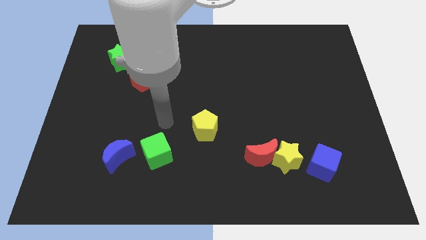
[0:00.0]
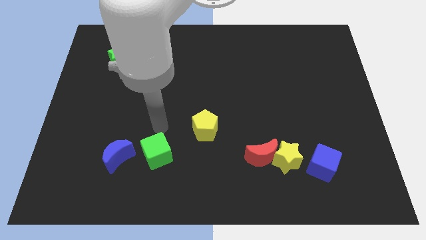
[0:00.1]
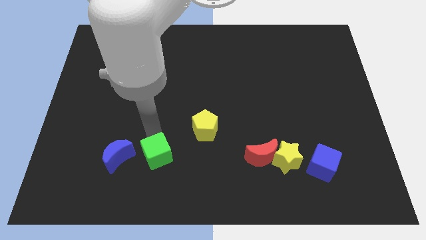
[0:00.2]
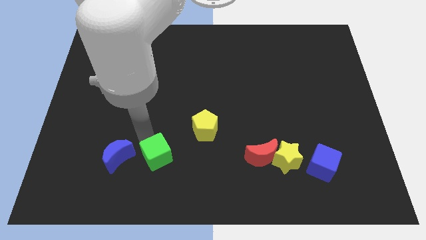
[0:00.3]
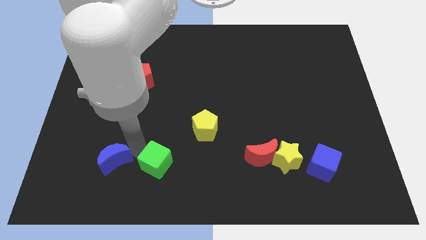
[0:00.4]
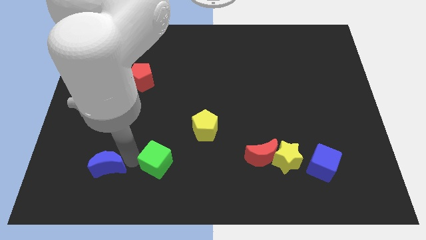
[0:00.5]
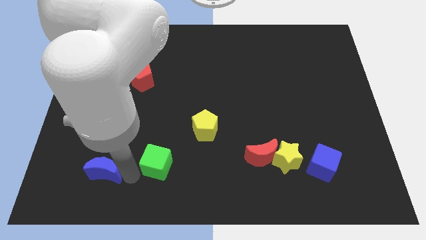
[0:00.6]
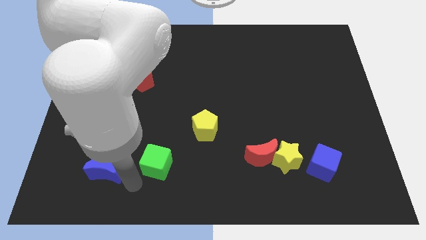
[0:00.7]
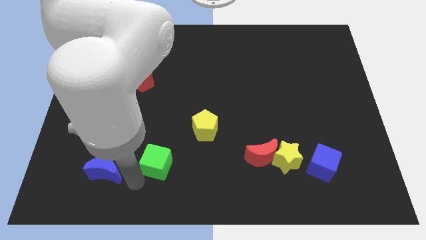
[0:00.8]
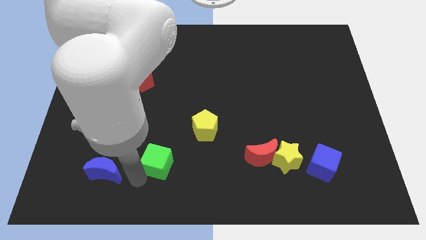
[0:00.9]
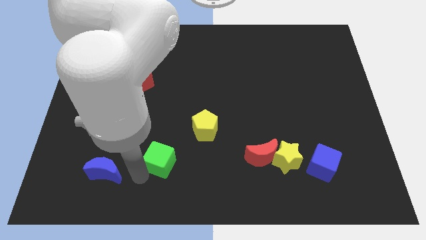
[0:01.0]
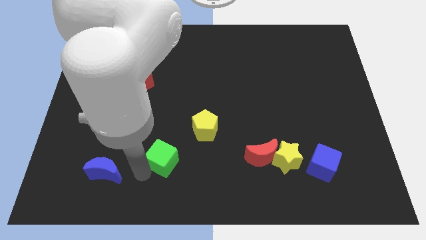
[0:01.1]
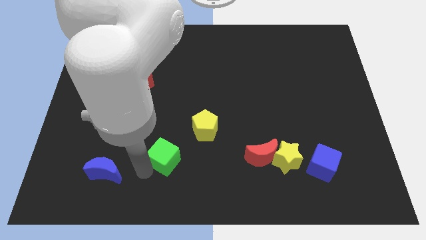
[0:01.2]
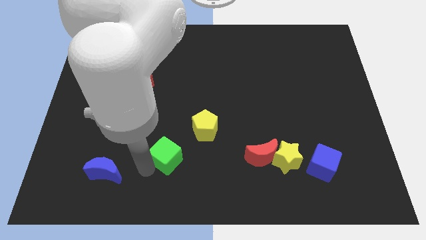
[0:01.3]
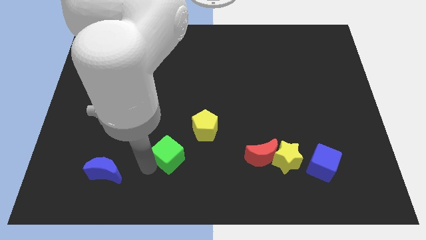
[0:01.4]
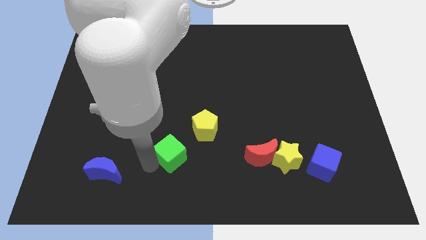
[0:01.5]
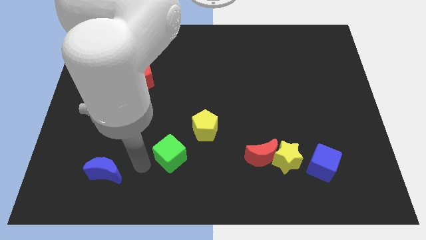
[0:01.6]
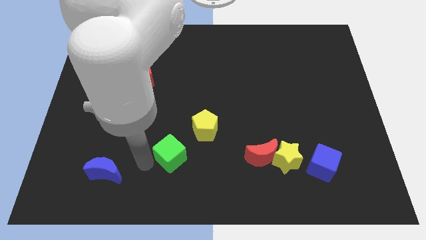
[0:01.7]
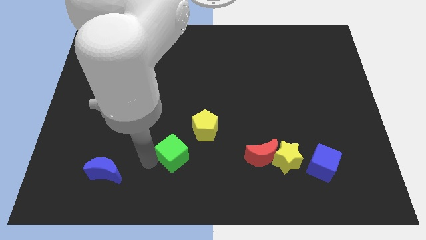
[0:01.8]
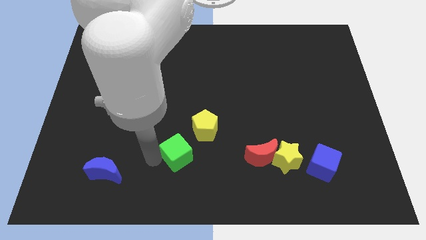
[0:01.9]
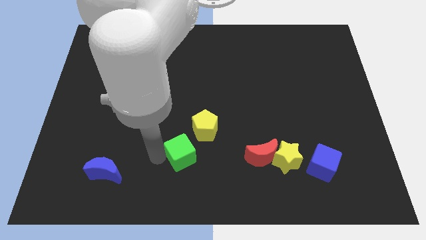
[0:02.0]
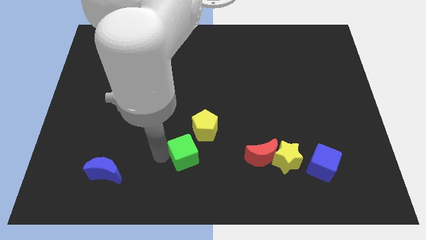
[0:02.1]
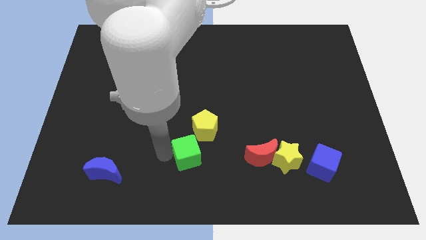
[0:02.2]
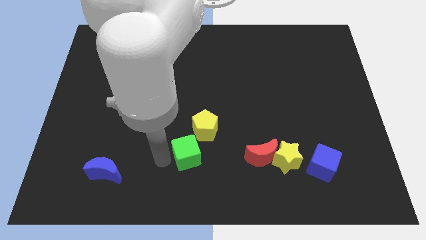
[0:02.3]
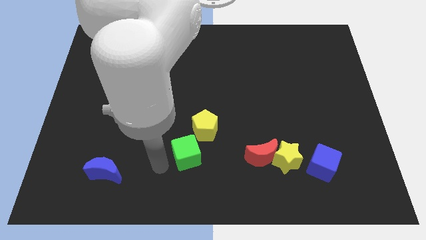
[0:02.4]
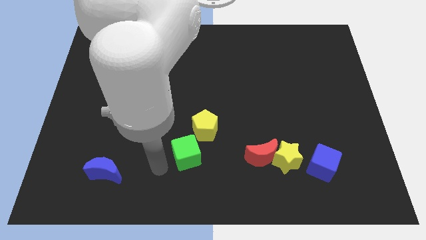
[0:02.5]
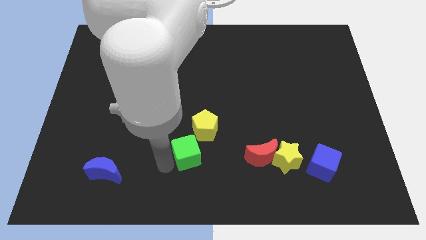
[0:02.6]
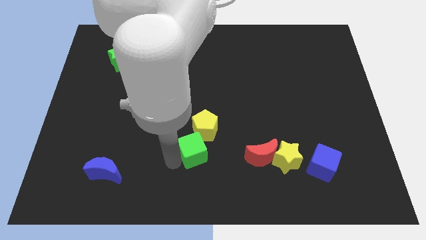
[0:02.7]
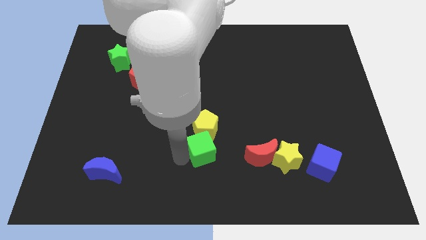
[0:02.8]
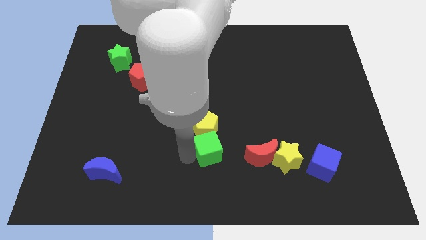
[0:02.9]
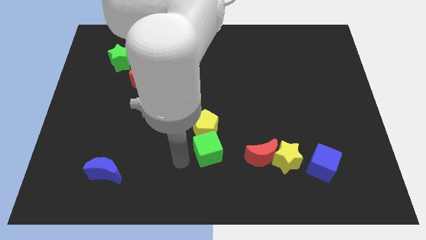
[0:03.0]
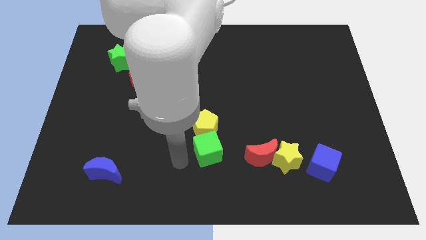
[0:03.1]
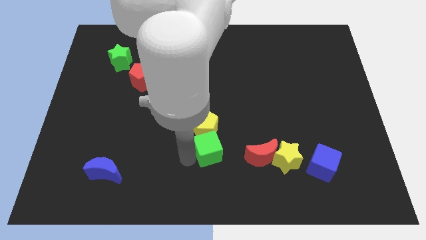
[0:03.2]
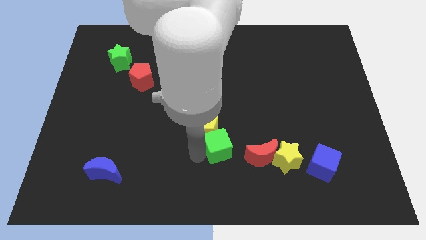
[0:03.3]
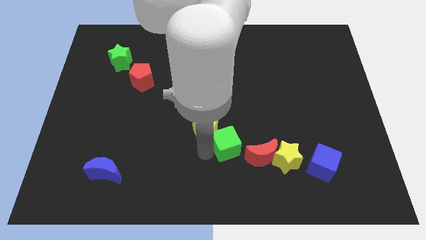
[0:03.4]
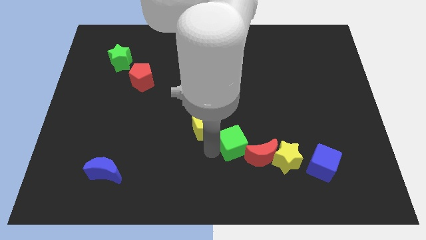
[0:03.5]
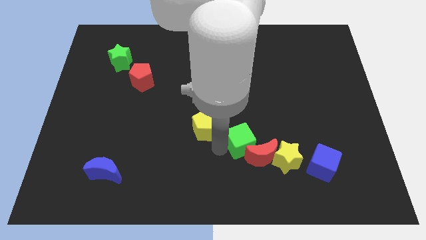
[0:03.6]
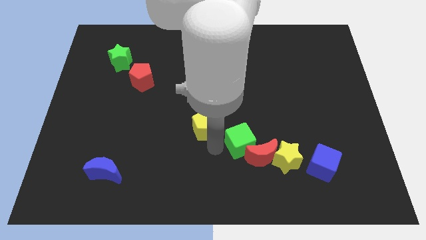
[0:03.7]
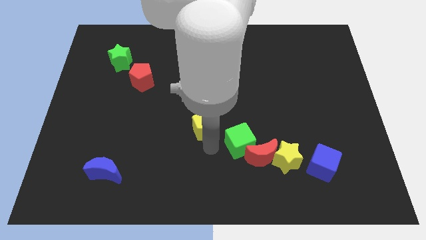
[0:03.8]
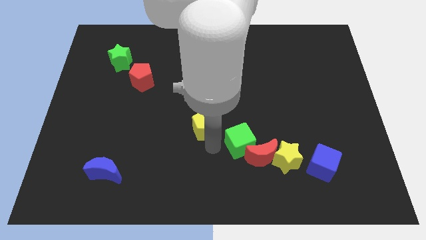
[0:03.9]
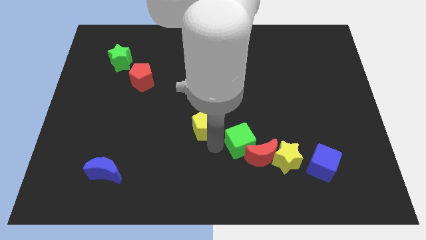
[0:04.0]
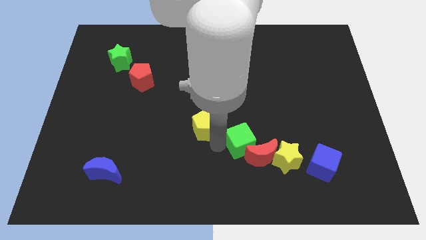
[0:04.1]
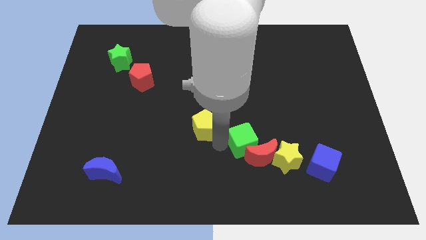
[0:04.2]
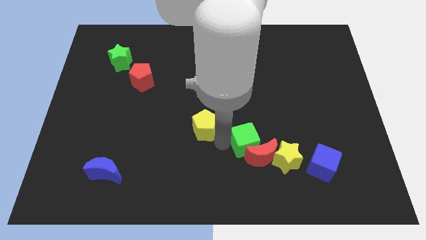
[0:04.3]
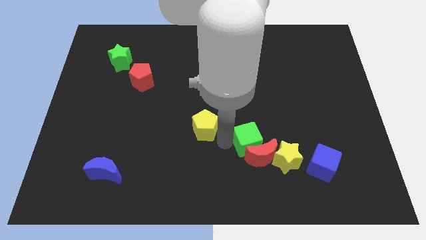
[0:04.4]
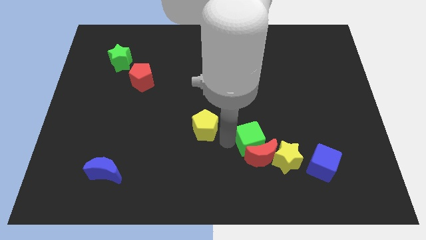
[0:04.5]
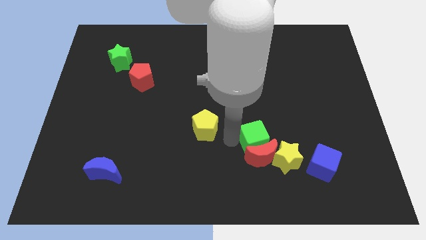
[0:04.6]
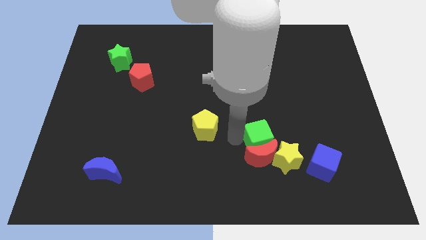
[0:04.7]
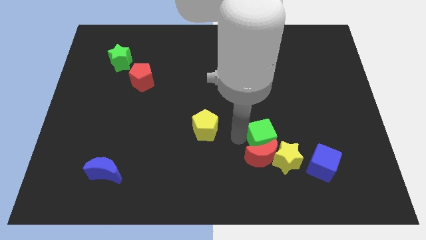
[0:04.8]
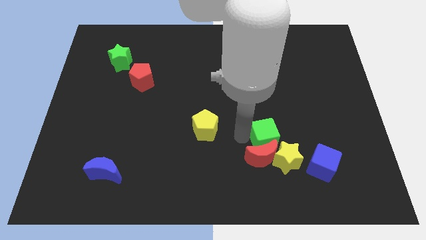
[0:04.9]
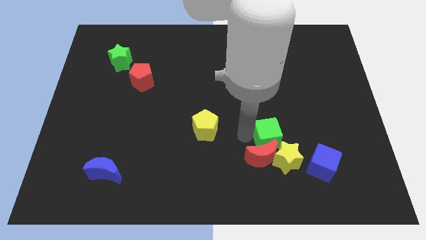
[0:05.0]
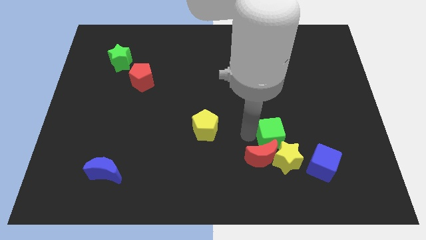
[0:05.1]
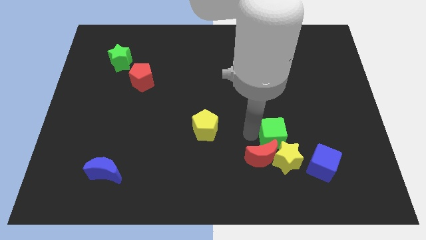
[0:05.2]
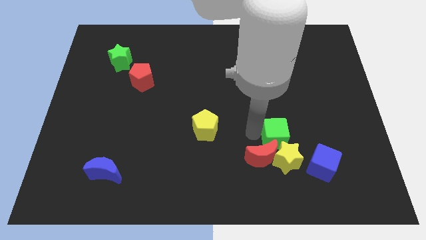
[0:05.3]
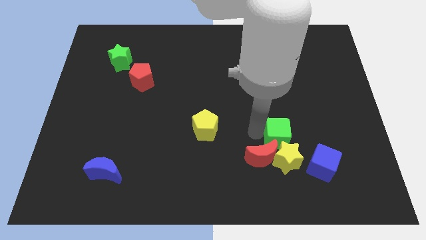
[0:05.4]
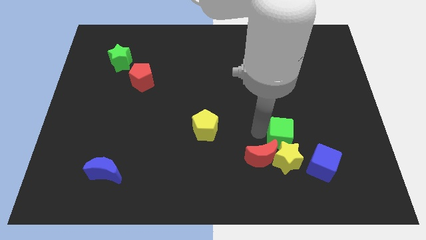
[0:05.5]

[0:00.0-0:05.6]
push the green cube to the top right of the yellow star

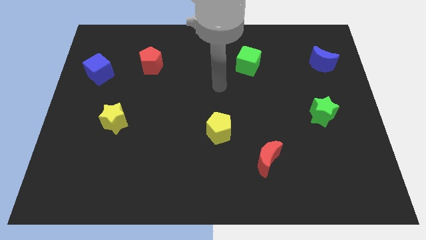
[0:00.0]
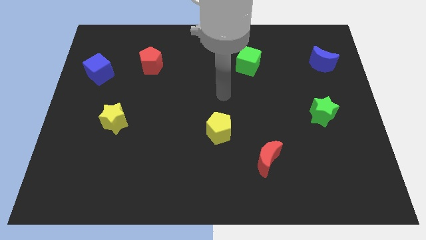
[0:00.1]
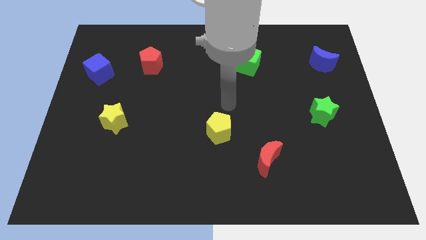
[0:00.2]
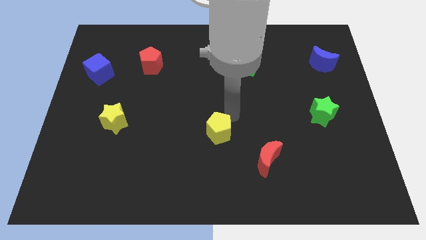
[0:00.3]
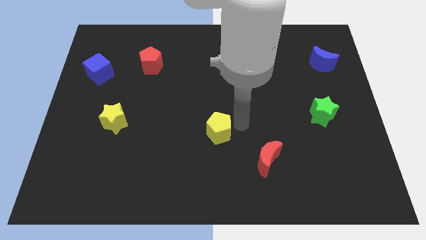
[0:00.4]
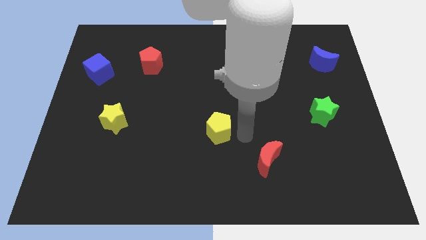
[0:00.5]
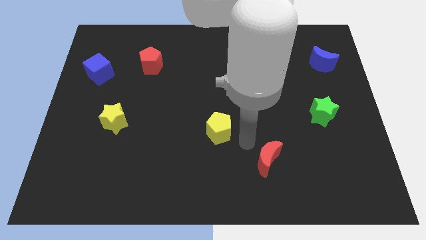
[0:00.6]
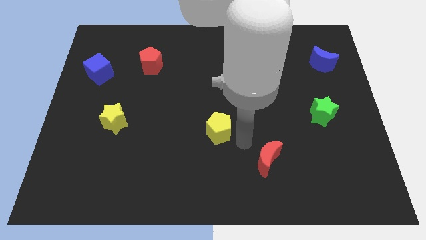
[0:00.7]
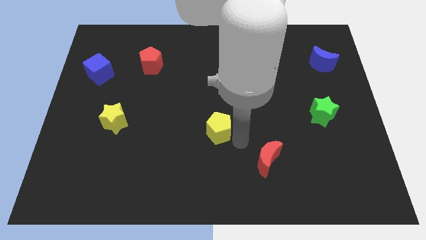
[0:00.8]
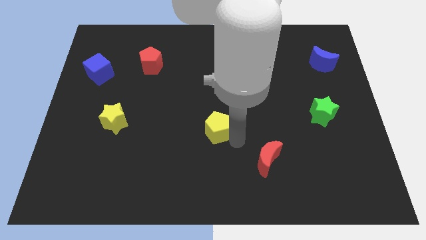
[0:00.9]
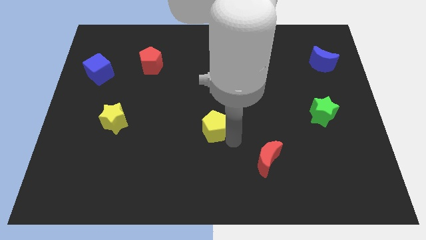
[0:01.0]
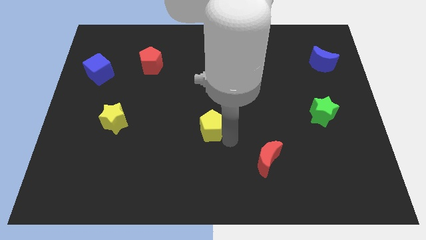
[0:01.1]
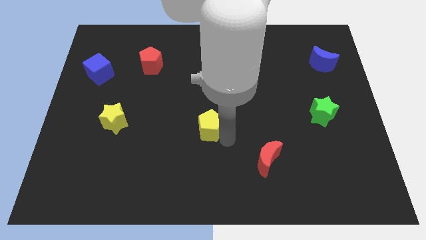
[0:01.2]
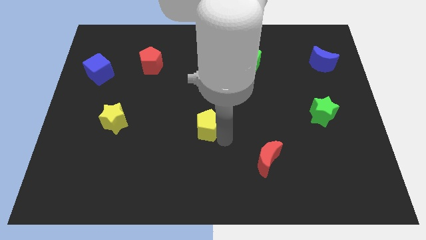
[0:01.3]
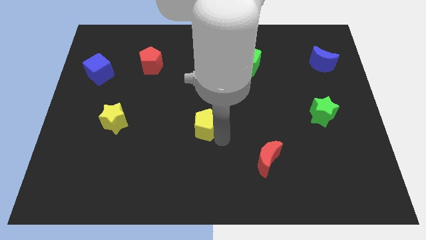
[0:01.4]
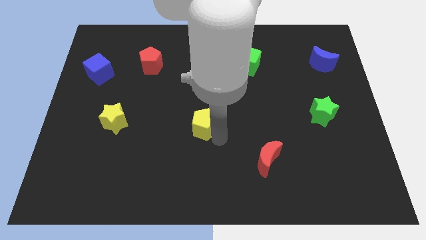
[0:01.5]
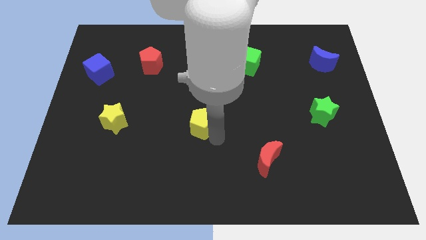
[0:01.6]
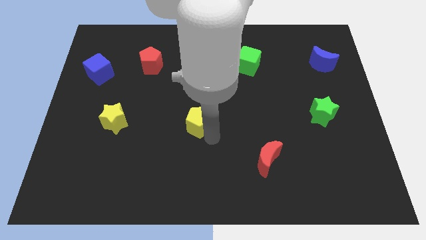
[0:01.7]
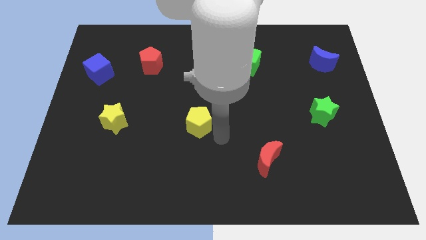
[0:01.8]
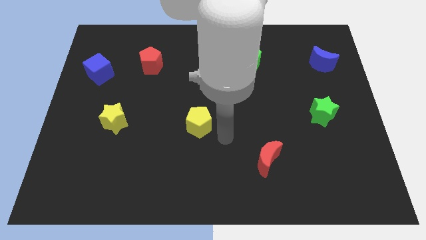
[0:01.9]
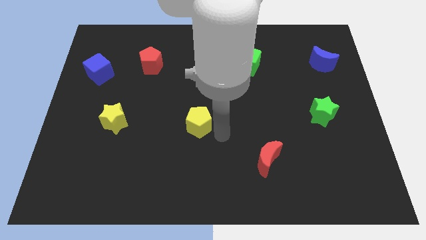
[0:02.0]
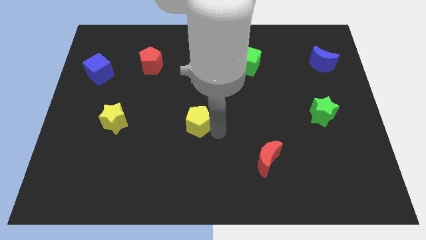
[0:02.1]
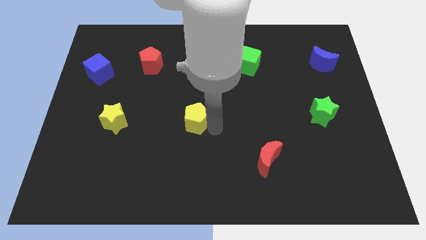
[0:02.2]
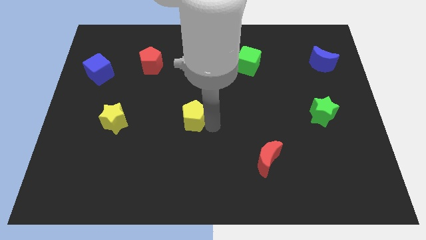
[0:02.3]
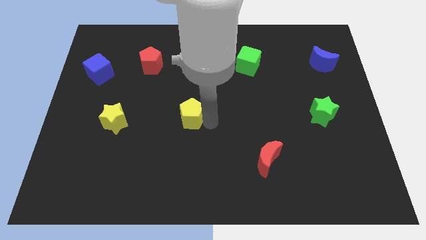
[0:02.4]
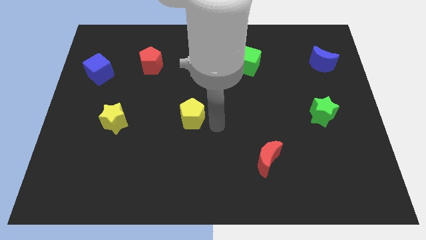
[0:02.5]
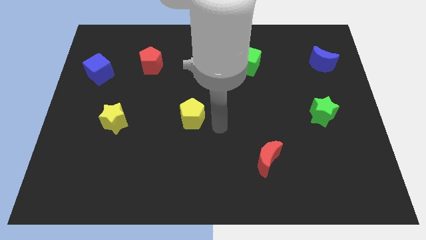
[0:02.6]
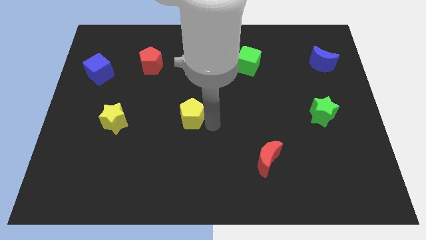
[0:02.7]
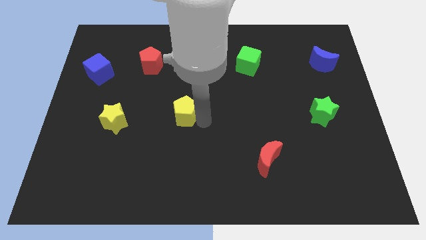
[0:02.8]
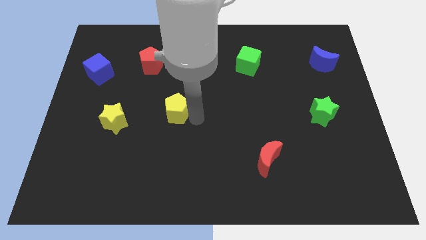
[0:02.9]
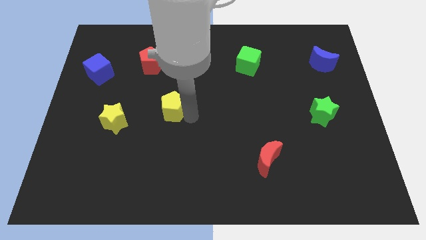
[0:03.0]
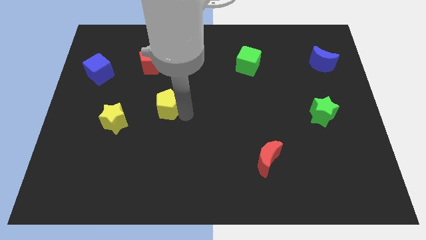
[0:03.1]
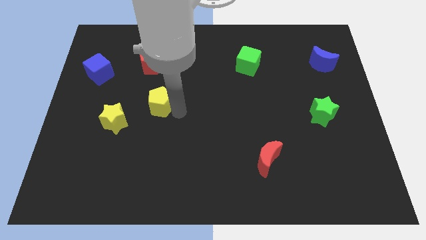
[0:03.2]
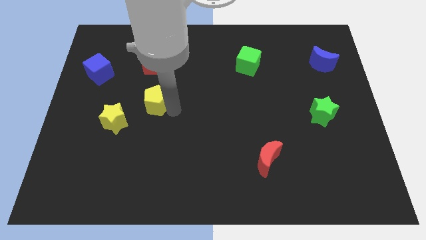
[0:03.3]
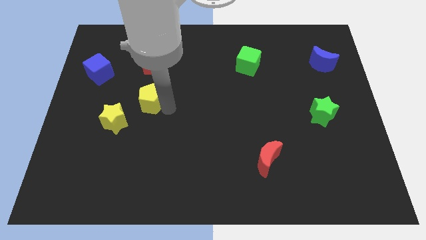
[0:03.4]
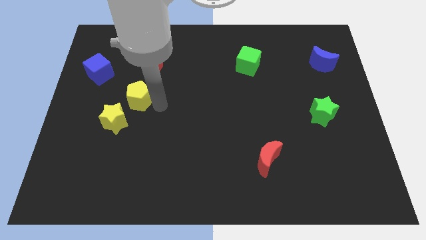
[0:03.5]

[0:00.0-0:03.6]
push the yellow pentagon to the top side of the yellow star
